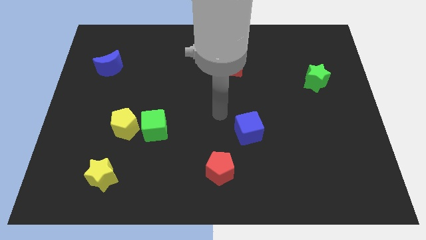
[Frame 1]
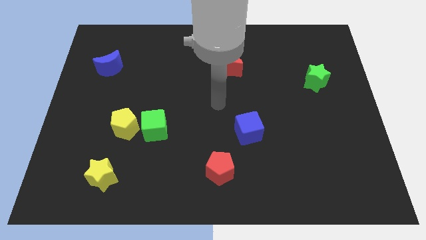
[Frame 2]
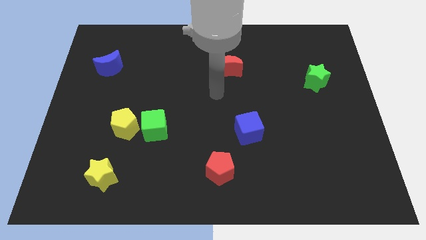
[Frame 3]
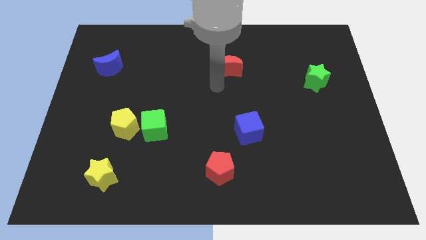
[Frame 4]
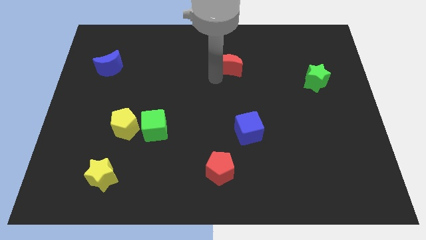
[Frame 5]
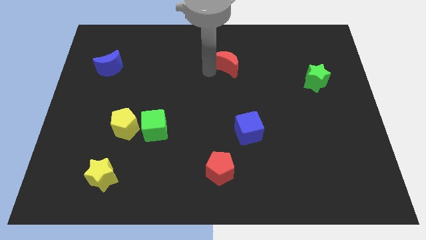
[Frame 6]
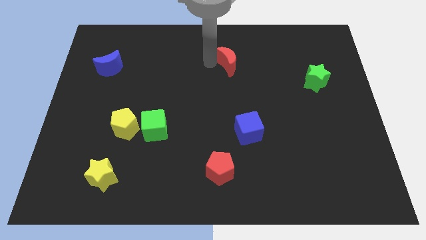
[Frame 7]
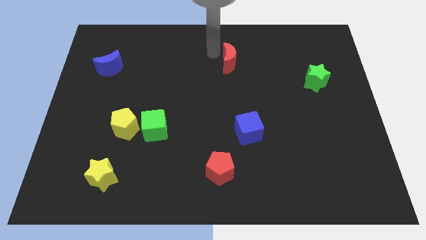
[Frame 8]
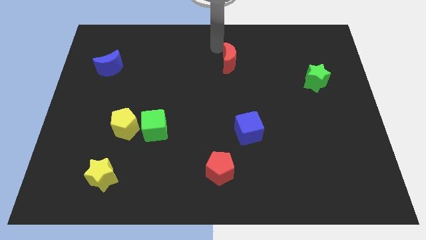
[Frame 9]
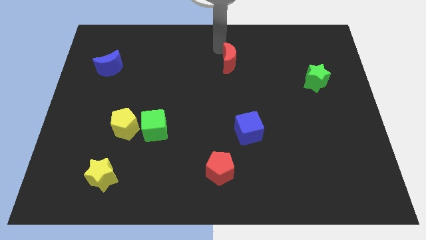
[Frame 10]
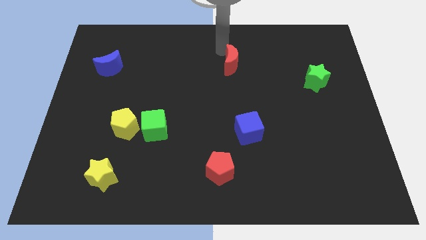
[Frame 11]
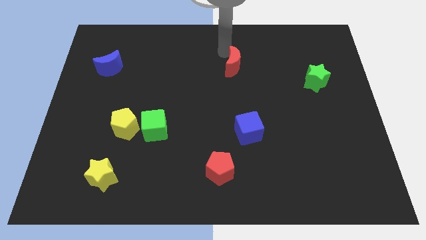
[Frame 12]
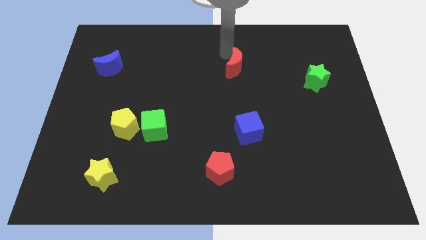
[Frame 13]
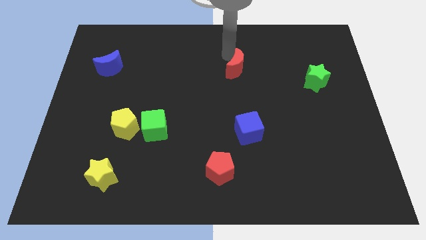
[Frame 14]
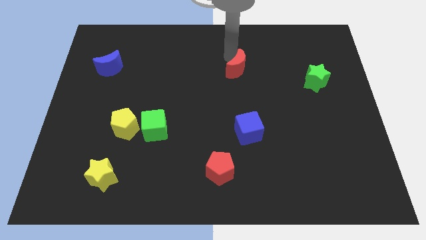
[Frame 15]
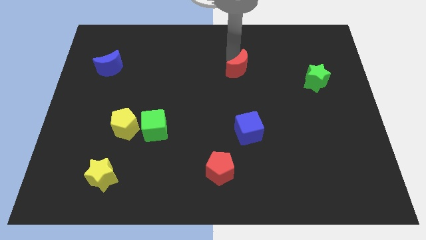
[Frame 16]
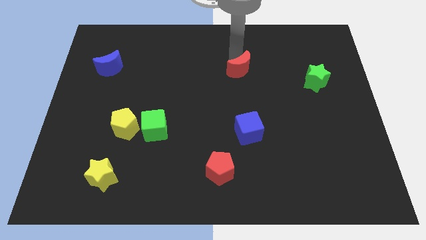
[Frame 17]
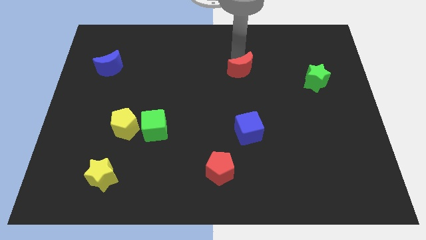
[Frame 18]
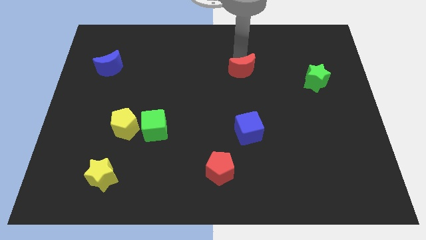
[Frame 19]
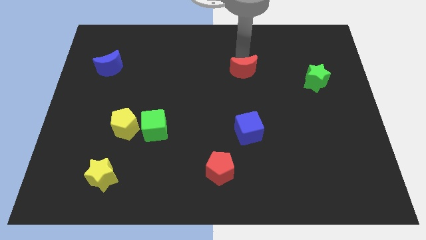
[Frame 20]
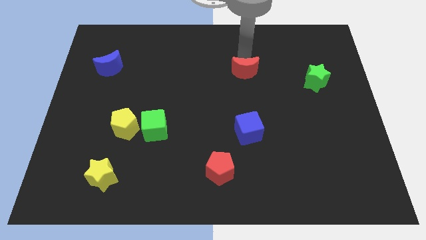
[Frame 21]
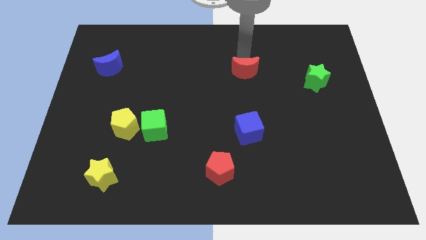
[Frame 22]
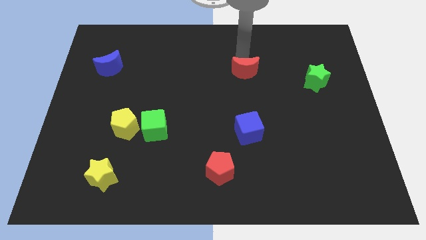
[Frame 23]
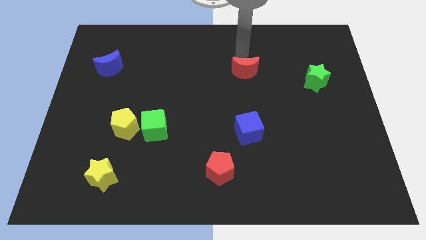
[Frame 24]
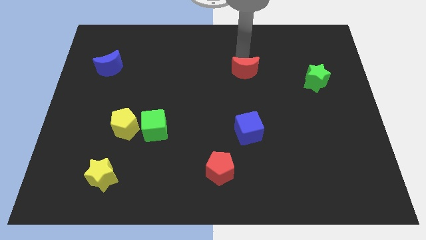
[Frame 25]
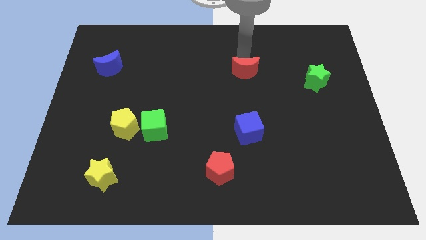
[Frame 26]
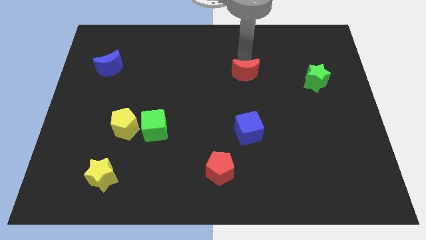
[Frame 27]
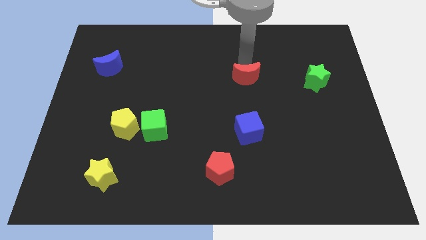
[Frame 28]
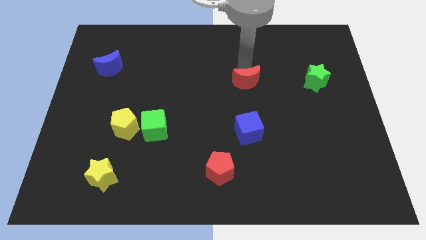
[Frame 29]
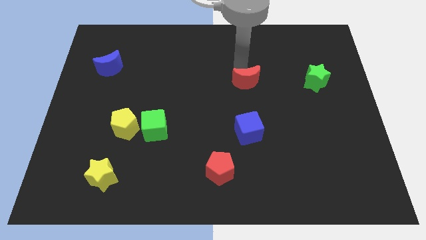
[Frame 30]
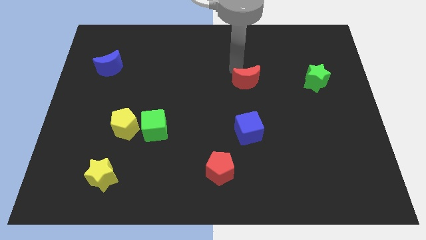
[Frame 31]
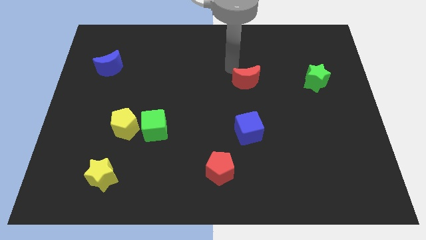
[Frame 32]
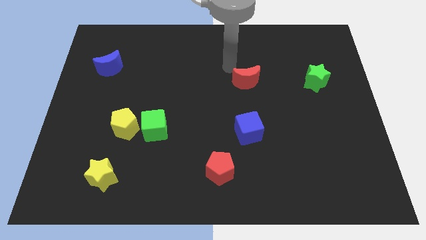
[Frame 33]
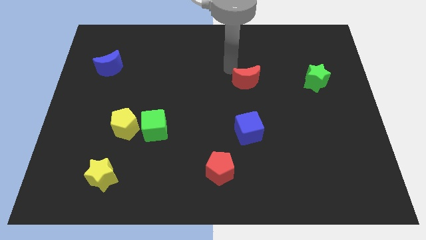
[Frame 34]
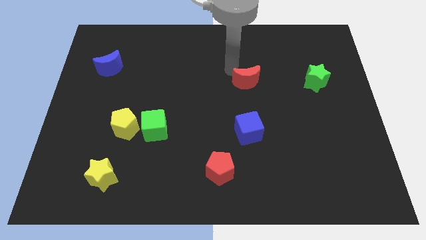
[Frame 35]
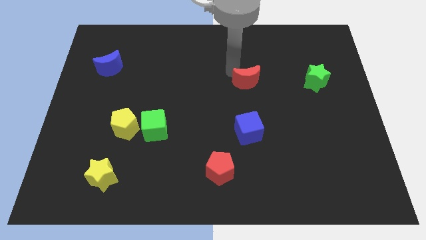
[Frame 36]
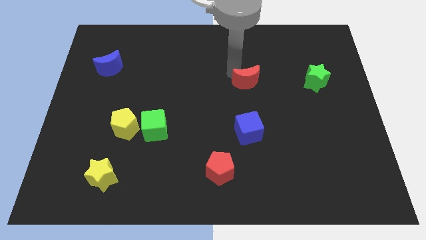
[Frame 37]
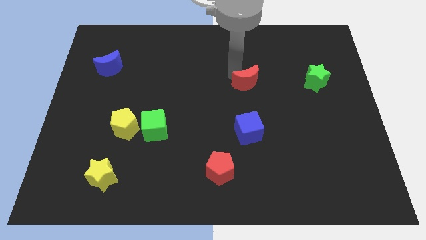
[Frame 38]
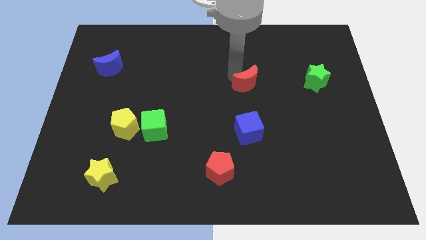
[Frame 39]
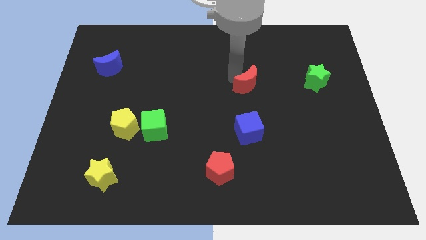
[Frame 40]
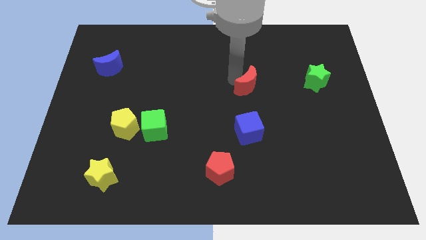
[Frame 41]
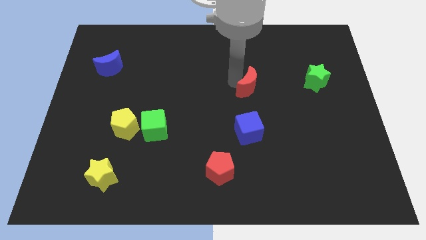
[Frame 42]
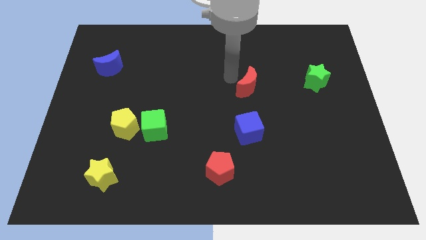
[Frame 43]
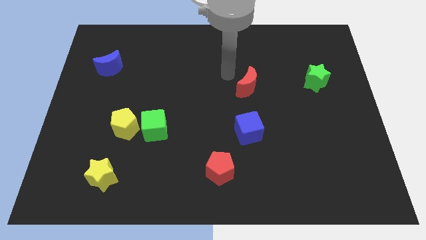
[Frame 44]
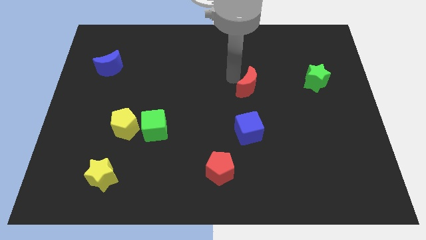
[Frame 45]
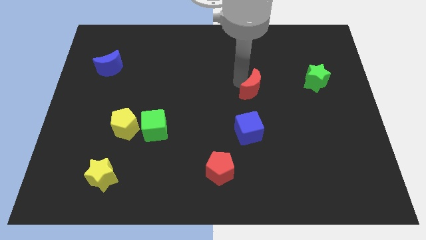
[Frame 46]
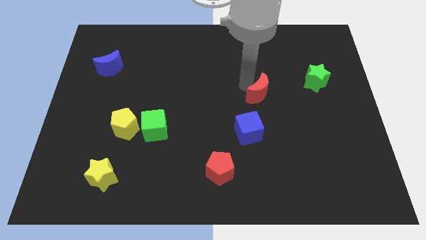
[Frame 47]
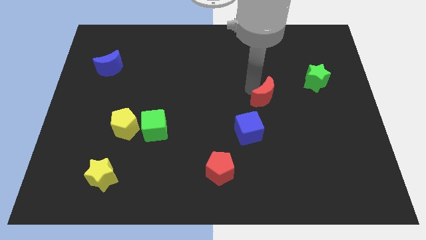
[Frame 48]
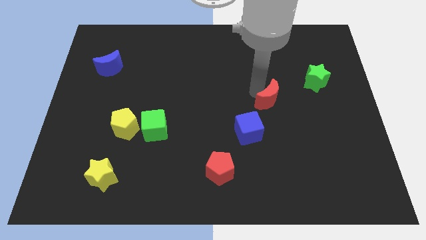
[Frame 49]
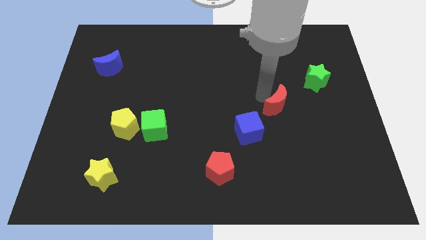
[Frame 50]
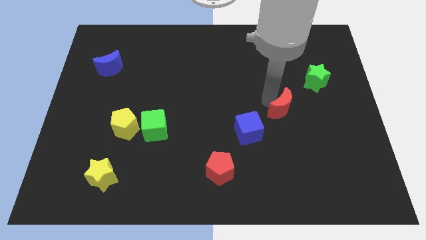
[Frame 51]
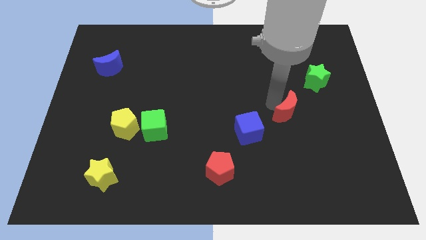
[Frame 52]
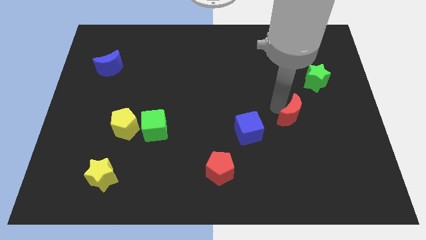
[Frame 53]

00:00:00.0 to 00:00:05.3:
move the red moon downwards and right

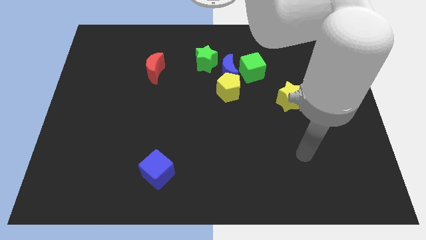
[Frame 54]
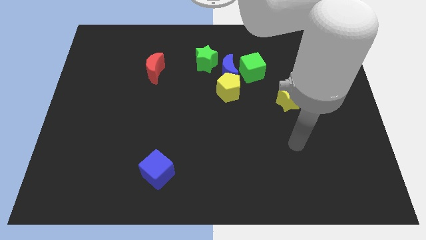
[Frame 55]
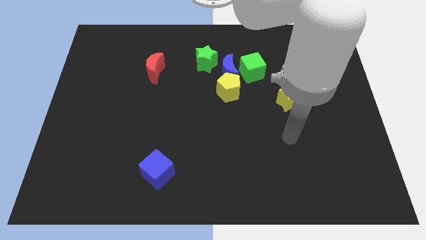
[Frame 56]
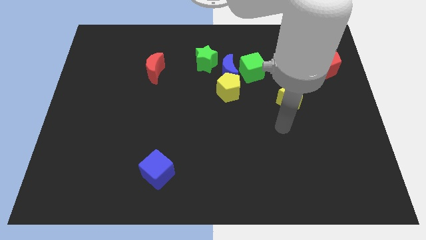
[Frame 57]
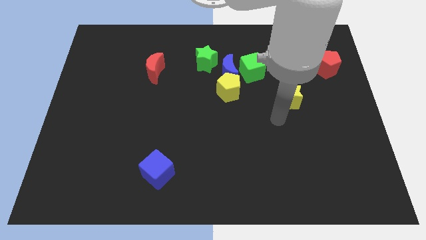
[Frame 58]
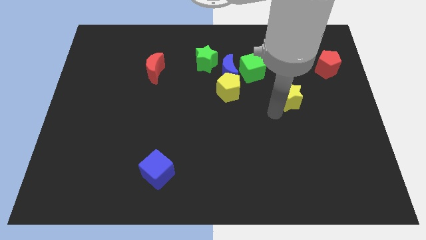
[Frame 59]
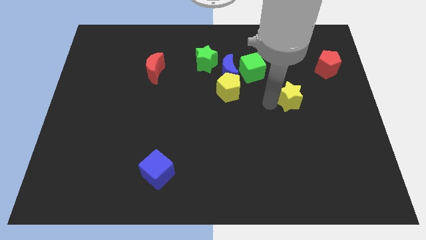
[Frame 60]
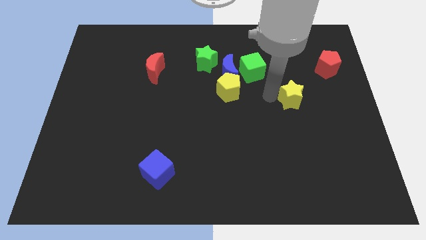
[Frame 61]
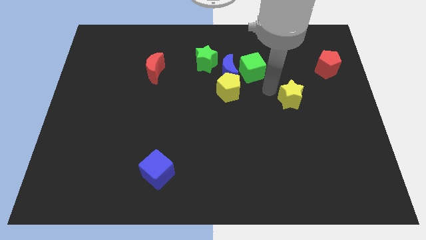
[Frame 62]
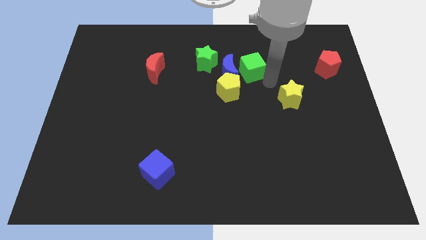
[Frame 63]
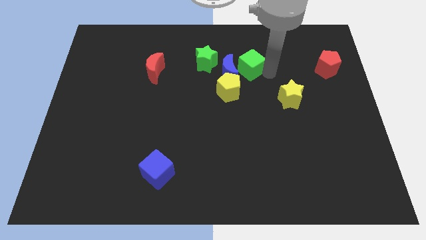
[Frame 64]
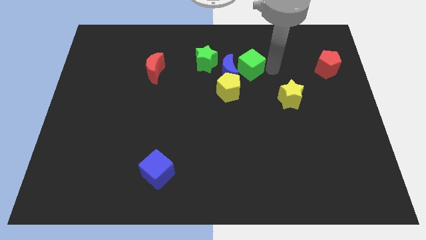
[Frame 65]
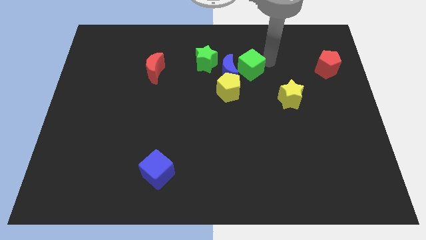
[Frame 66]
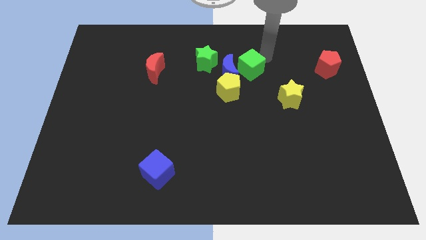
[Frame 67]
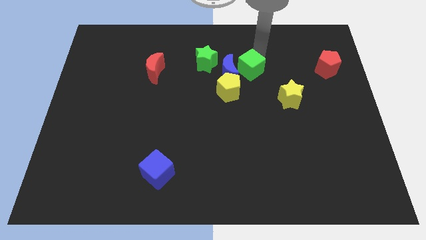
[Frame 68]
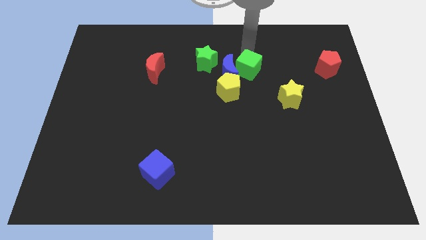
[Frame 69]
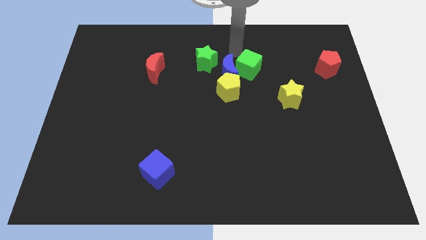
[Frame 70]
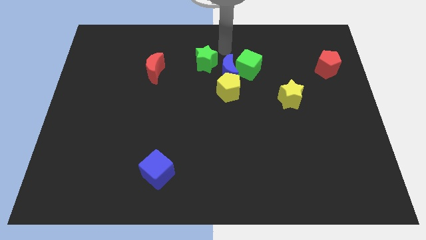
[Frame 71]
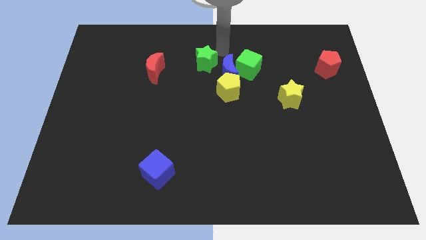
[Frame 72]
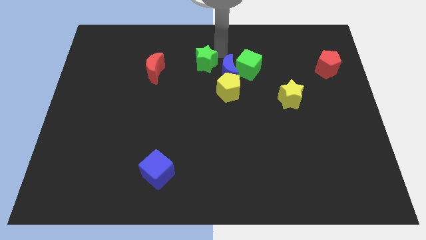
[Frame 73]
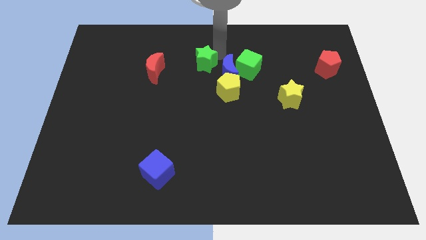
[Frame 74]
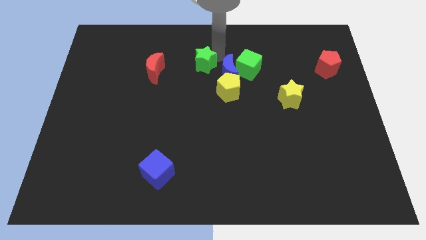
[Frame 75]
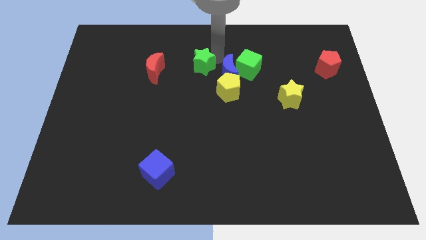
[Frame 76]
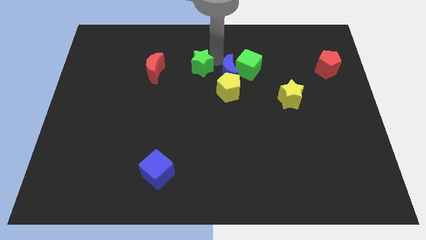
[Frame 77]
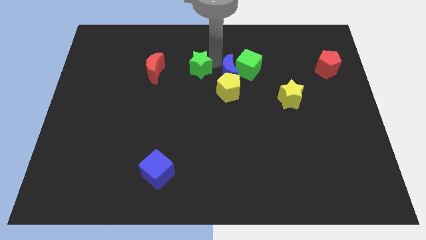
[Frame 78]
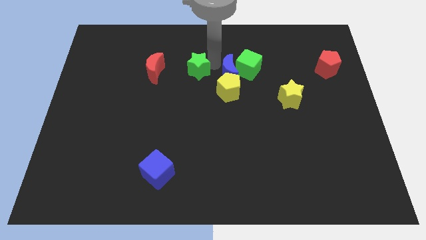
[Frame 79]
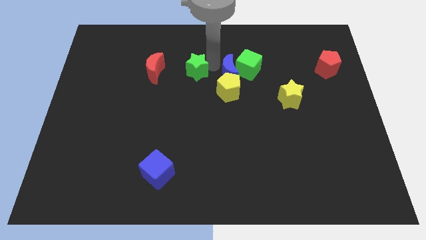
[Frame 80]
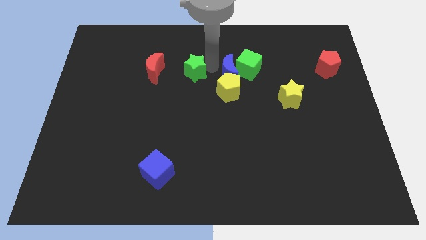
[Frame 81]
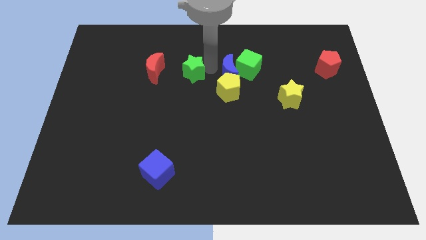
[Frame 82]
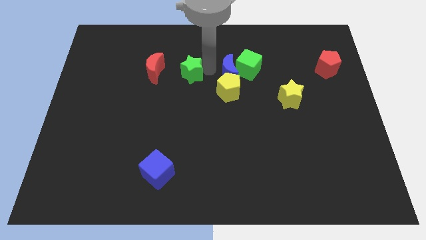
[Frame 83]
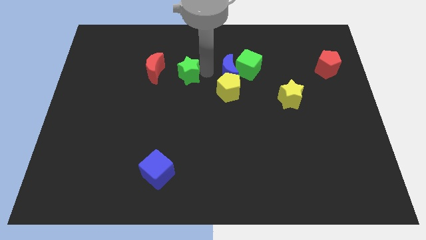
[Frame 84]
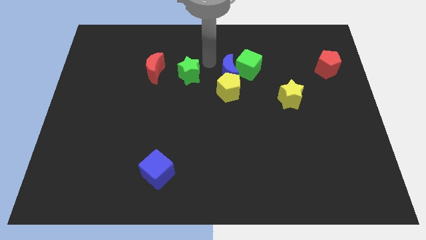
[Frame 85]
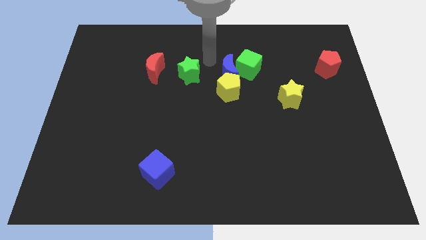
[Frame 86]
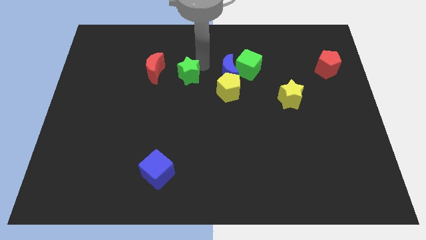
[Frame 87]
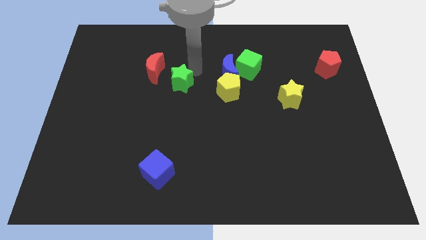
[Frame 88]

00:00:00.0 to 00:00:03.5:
move the green star a little bit down and to the left diagonally
